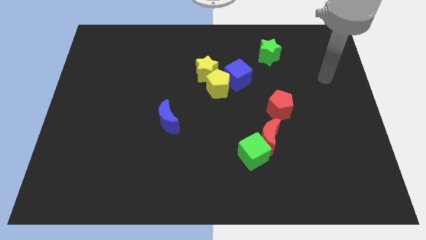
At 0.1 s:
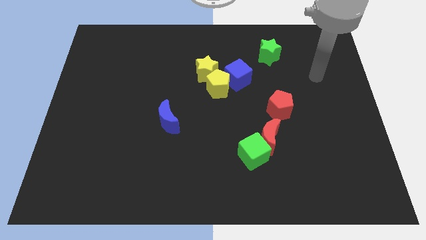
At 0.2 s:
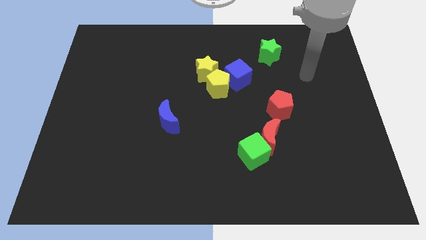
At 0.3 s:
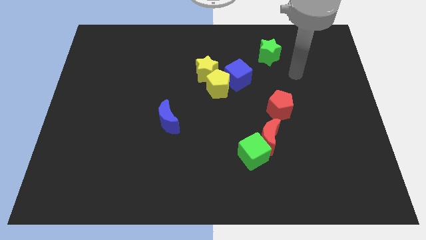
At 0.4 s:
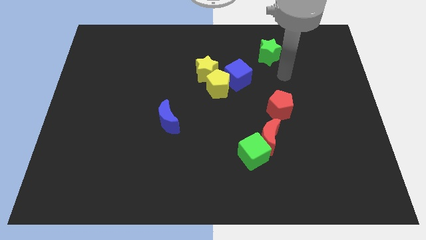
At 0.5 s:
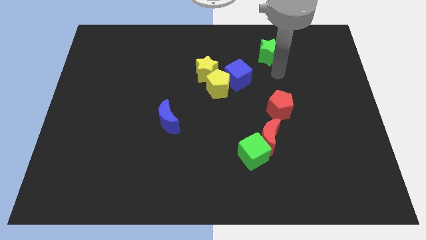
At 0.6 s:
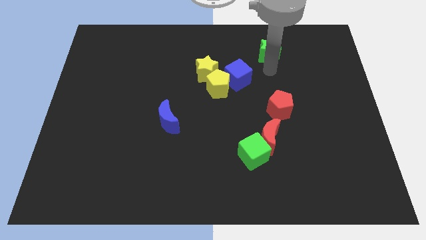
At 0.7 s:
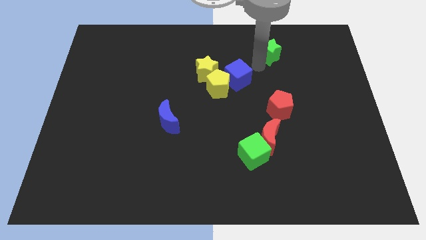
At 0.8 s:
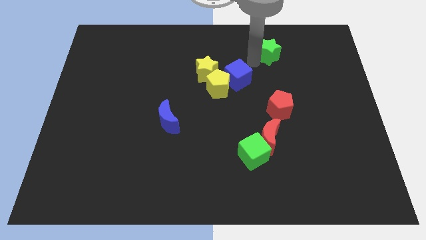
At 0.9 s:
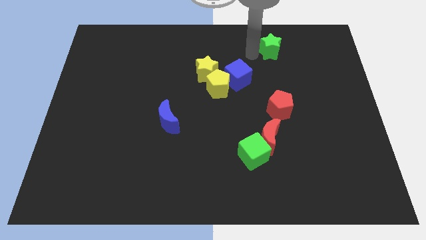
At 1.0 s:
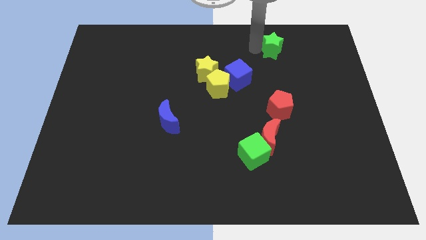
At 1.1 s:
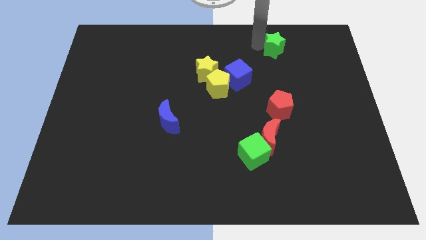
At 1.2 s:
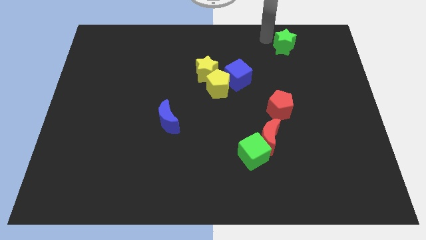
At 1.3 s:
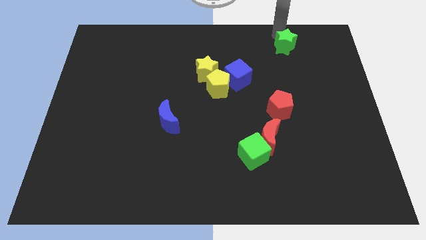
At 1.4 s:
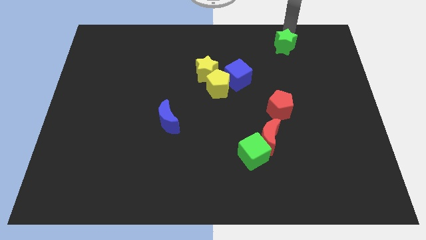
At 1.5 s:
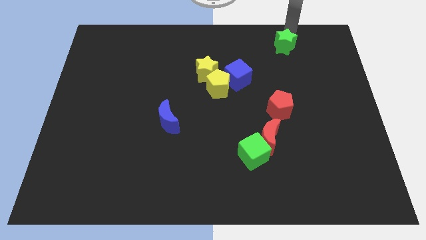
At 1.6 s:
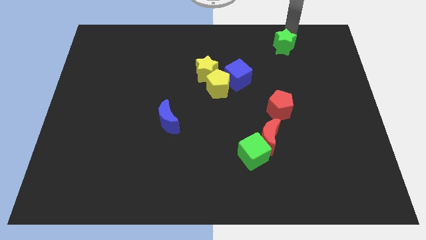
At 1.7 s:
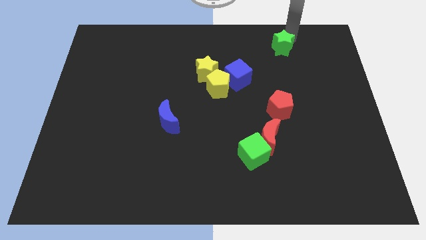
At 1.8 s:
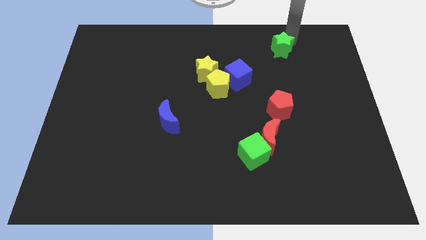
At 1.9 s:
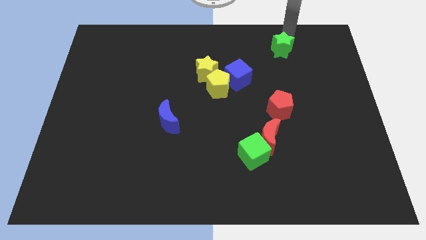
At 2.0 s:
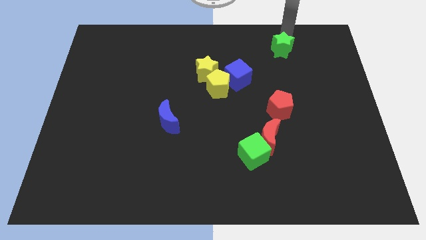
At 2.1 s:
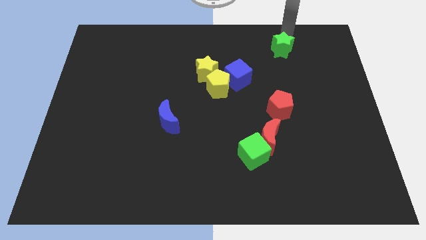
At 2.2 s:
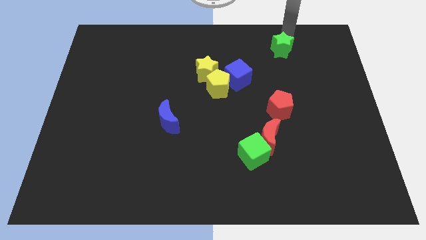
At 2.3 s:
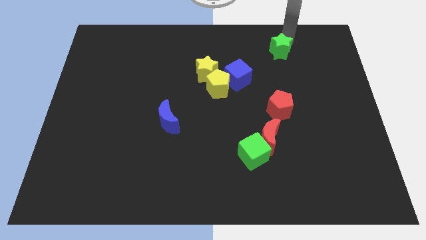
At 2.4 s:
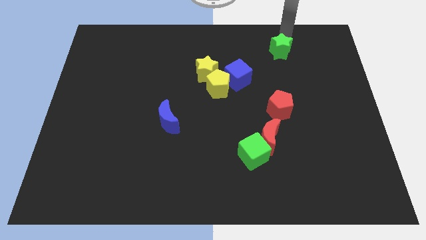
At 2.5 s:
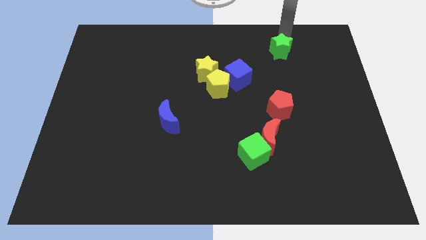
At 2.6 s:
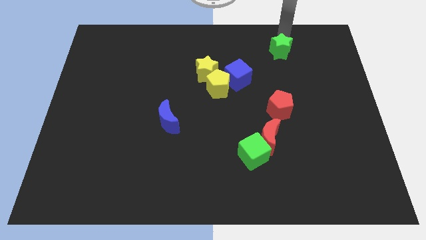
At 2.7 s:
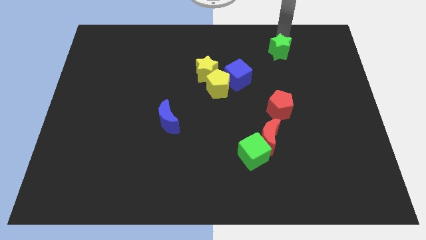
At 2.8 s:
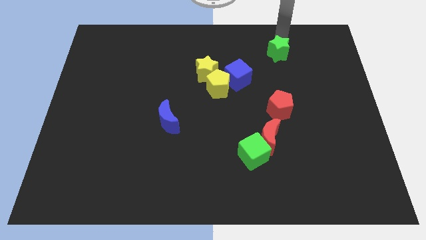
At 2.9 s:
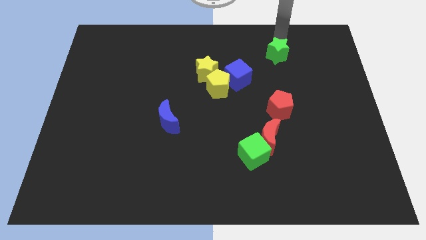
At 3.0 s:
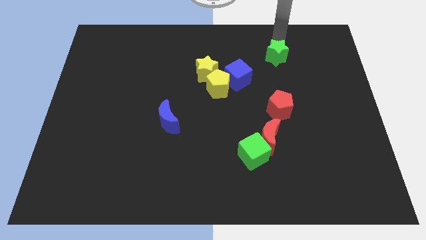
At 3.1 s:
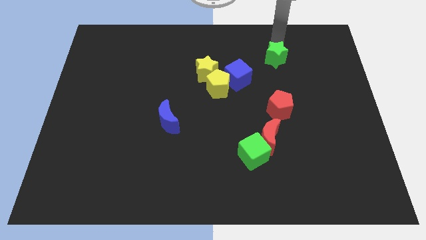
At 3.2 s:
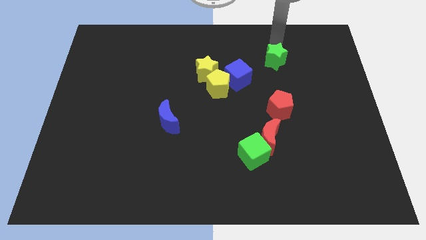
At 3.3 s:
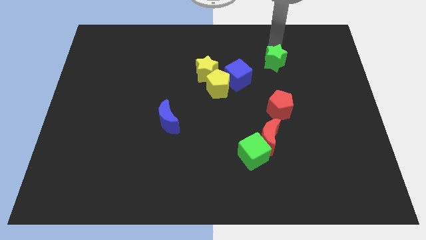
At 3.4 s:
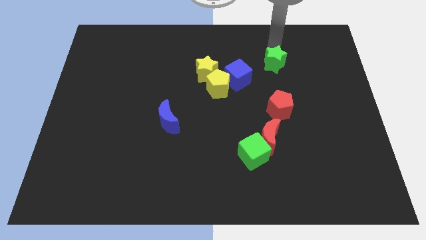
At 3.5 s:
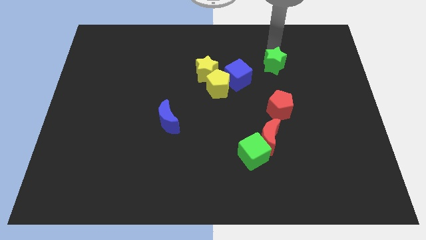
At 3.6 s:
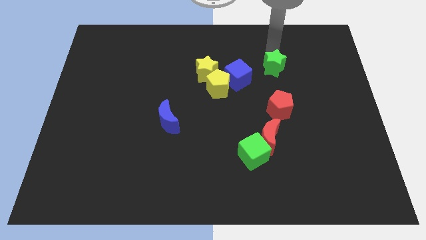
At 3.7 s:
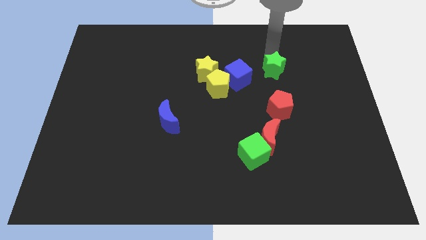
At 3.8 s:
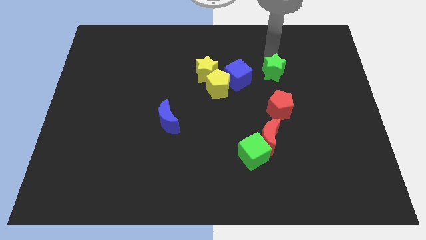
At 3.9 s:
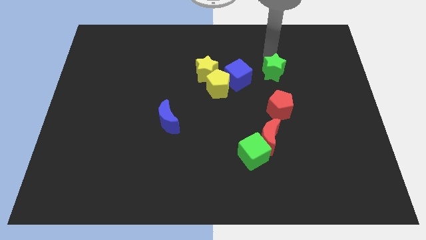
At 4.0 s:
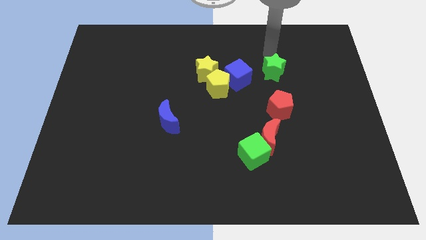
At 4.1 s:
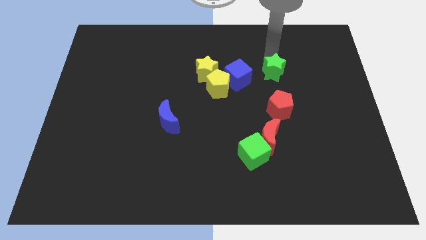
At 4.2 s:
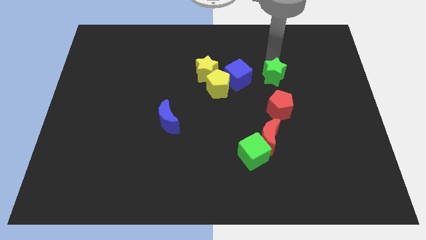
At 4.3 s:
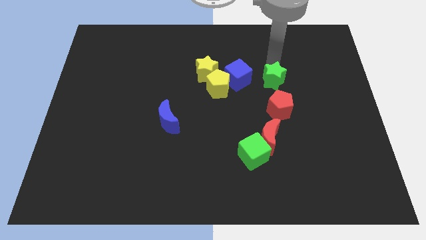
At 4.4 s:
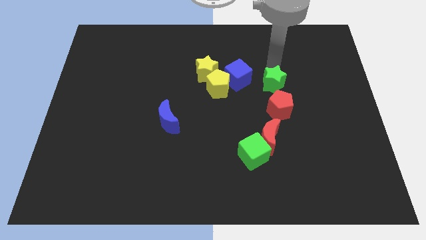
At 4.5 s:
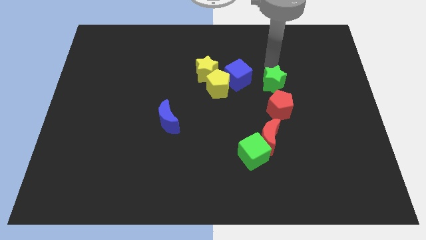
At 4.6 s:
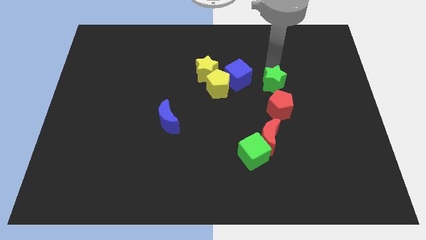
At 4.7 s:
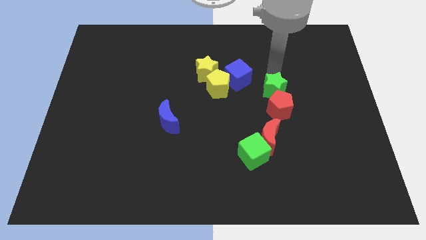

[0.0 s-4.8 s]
push the green star close to the red pentagon

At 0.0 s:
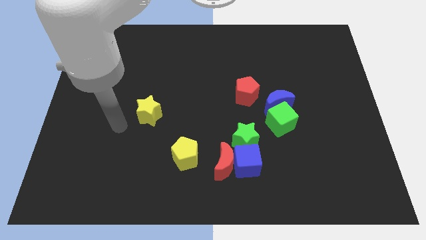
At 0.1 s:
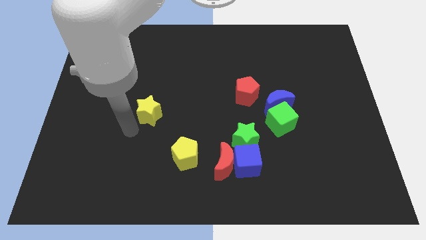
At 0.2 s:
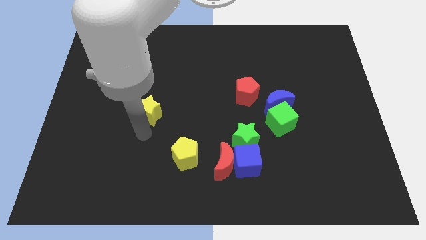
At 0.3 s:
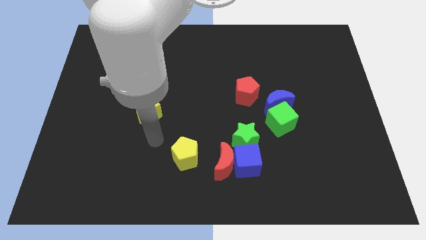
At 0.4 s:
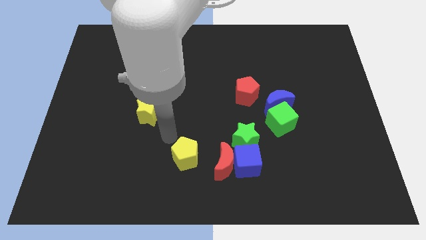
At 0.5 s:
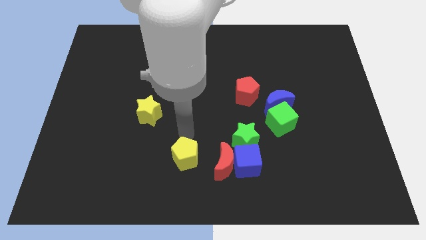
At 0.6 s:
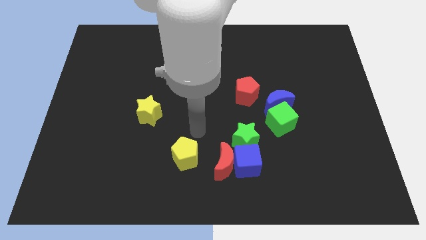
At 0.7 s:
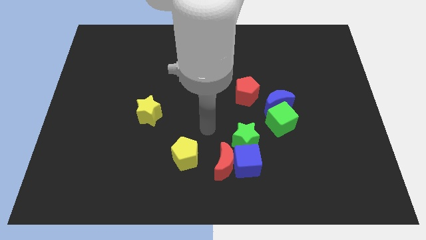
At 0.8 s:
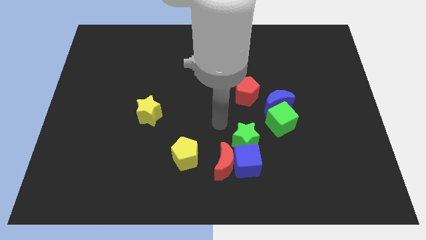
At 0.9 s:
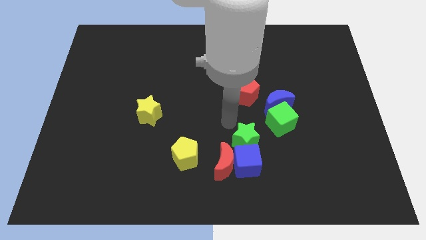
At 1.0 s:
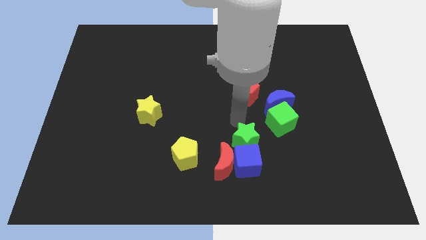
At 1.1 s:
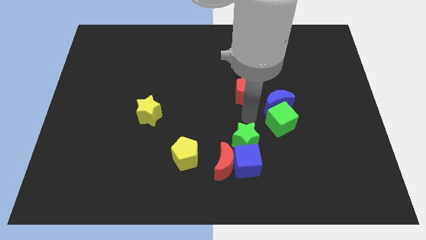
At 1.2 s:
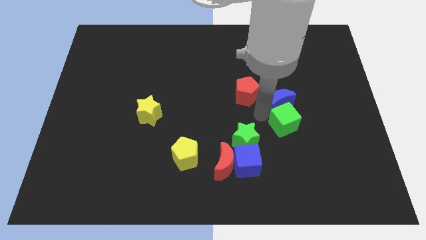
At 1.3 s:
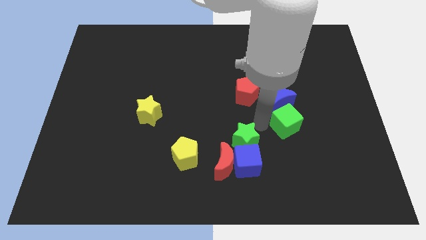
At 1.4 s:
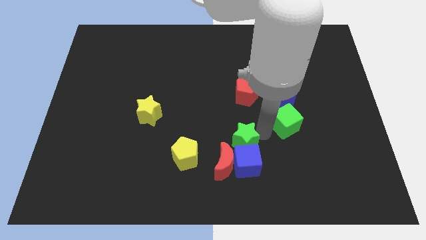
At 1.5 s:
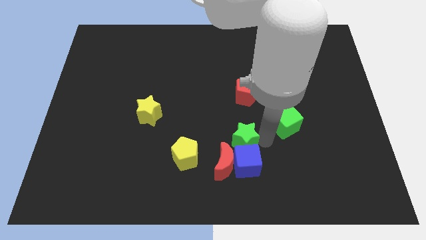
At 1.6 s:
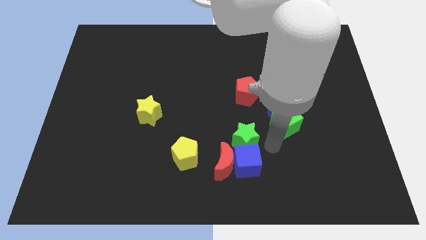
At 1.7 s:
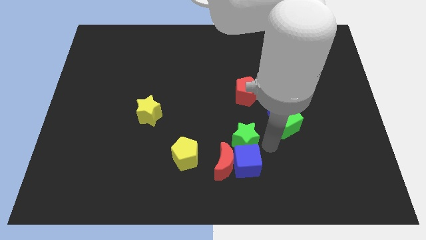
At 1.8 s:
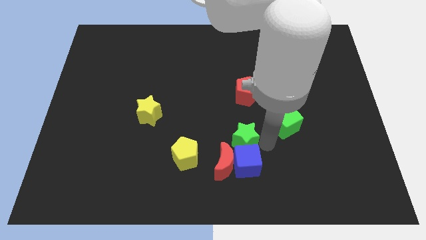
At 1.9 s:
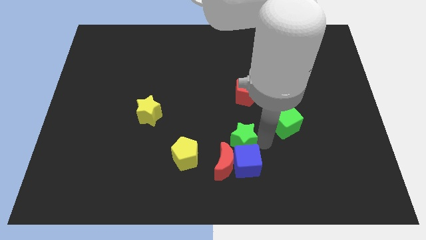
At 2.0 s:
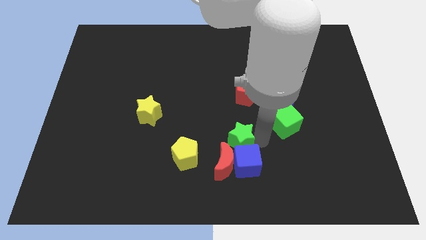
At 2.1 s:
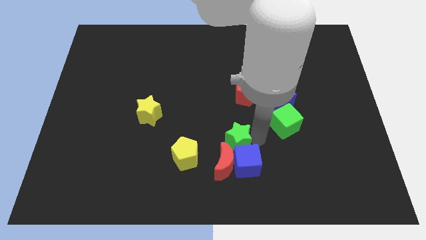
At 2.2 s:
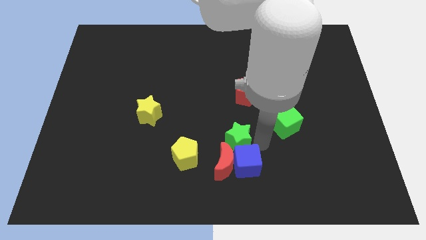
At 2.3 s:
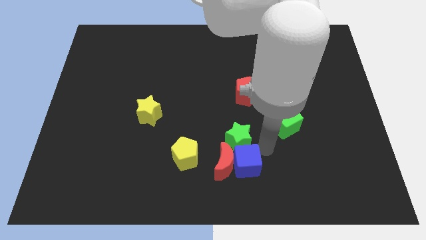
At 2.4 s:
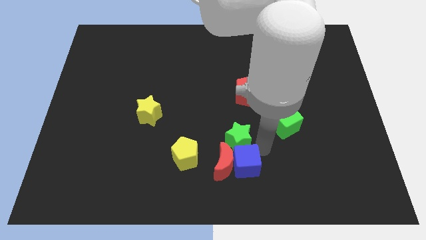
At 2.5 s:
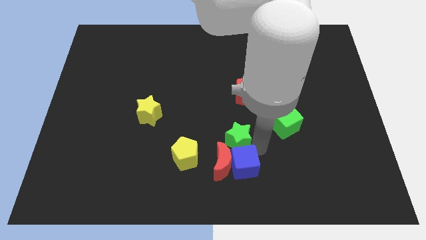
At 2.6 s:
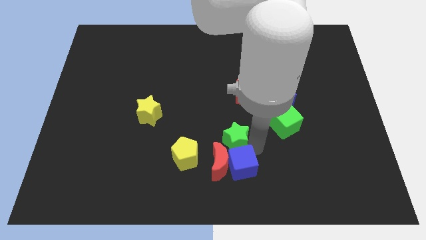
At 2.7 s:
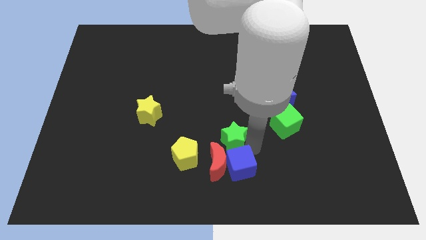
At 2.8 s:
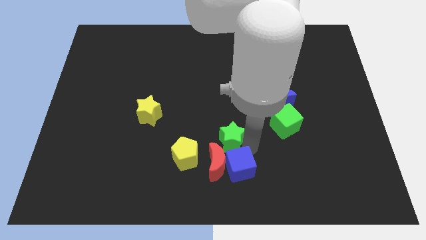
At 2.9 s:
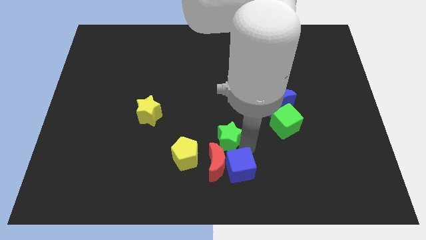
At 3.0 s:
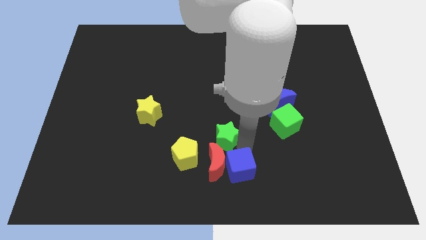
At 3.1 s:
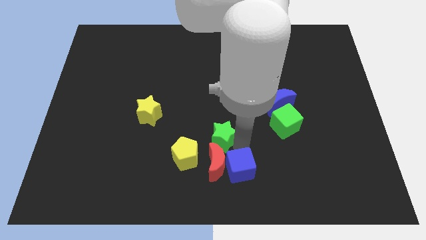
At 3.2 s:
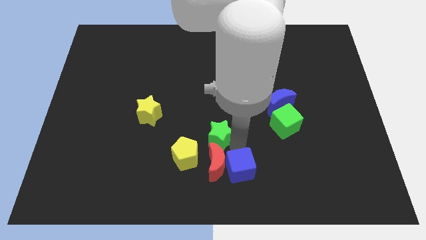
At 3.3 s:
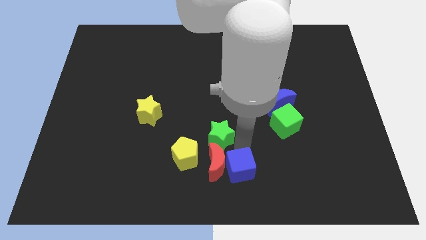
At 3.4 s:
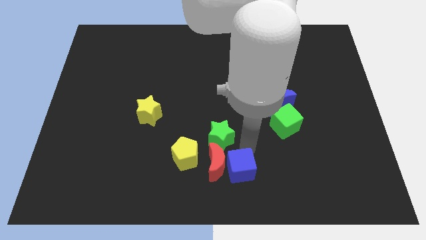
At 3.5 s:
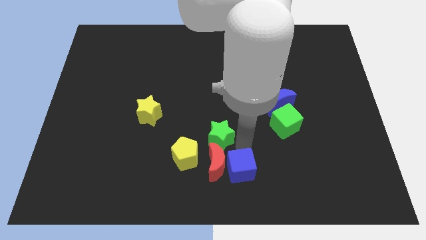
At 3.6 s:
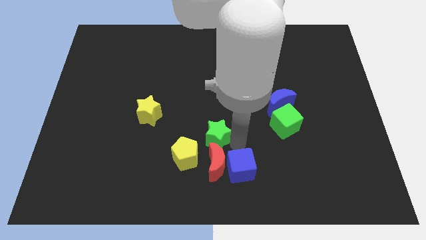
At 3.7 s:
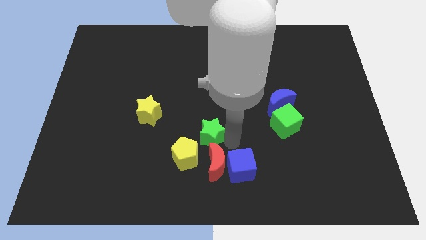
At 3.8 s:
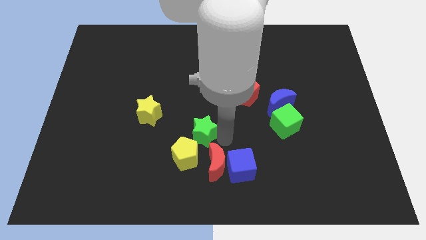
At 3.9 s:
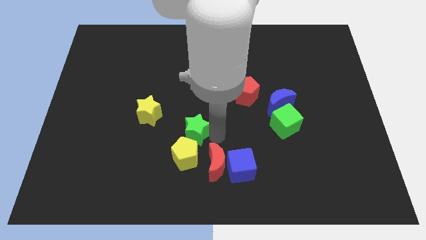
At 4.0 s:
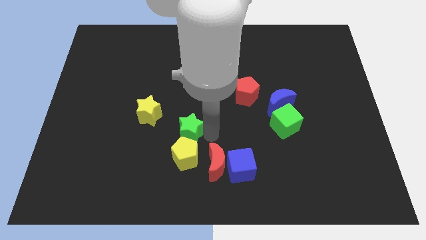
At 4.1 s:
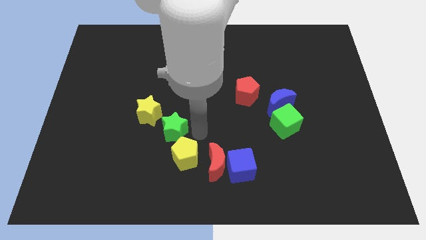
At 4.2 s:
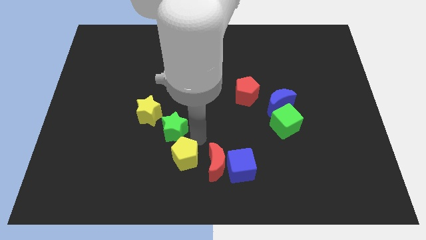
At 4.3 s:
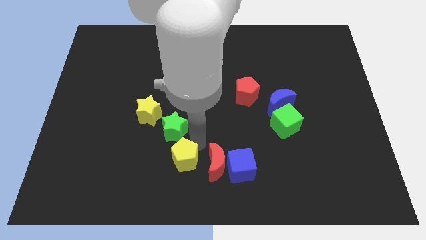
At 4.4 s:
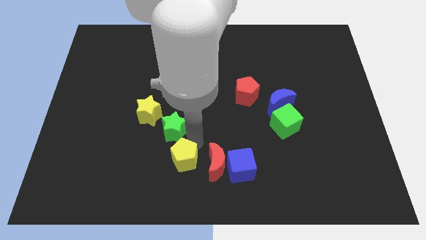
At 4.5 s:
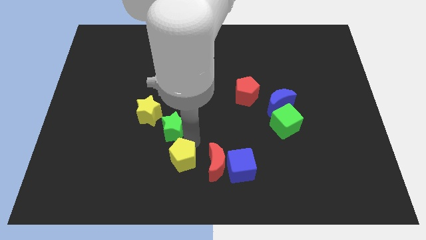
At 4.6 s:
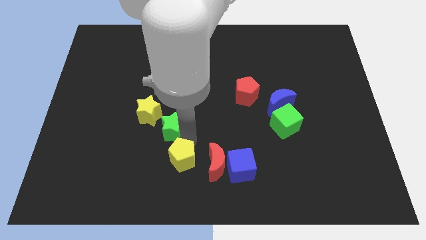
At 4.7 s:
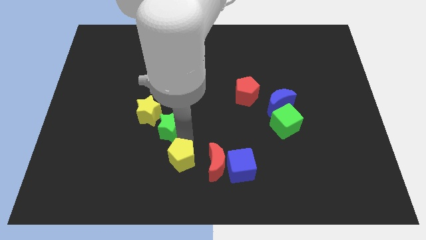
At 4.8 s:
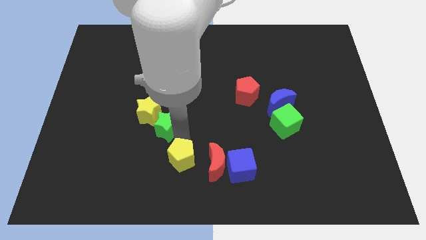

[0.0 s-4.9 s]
push the green star to the yellow star
